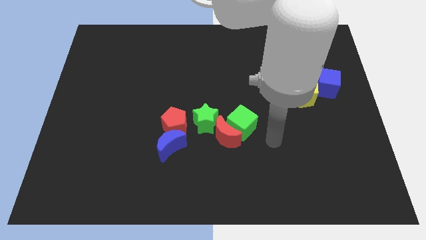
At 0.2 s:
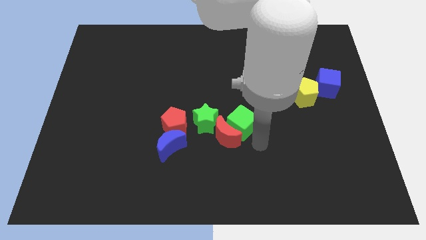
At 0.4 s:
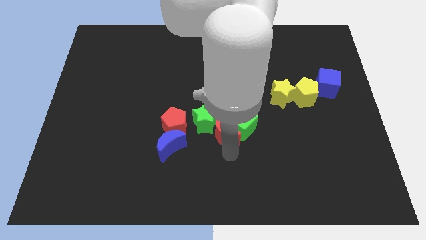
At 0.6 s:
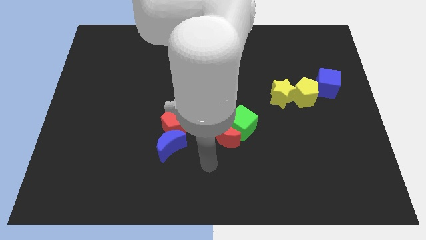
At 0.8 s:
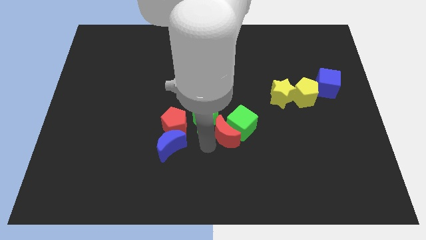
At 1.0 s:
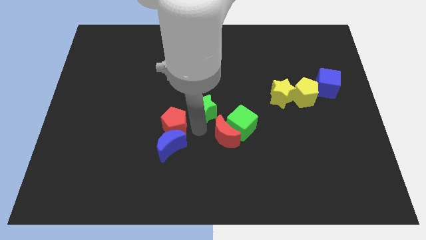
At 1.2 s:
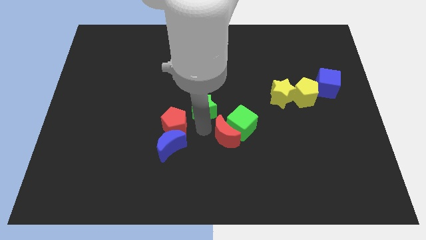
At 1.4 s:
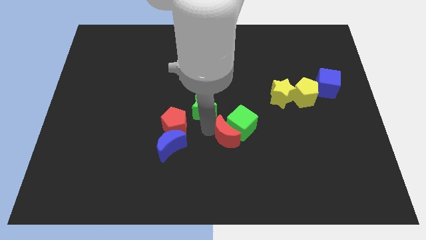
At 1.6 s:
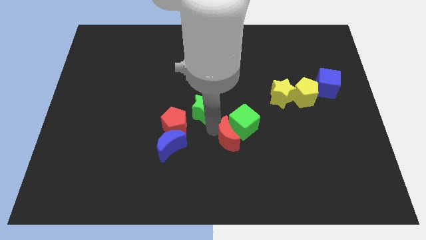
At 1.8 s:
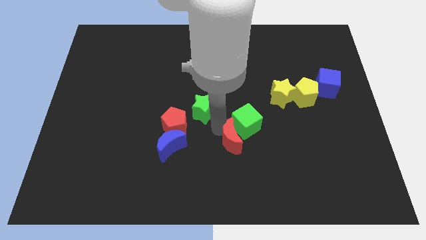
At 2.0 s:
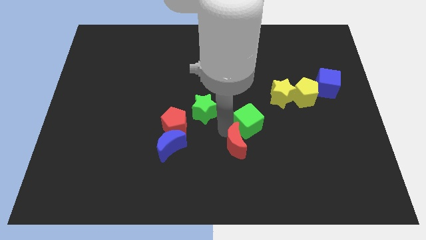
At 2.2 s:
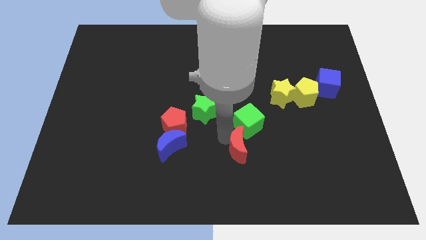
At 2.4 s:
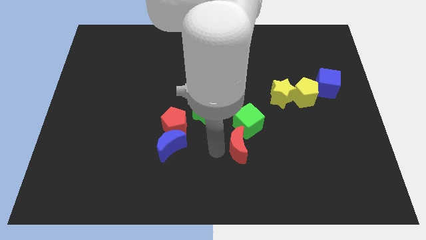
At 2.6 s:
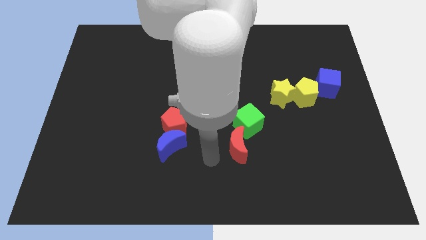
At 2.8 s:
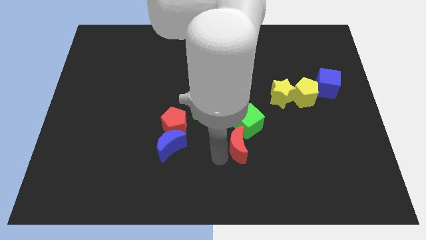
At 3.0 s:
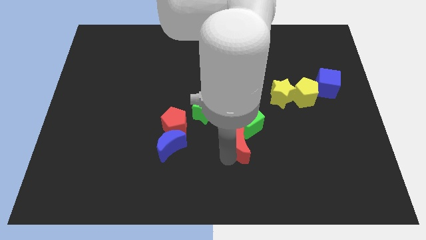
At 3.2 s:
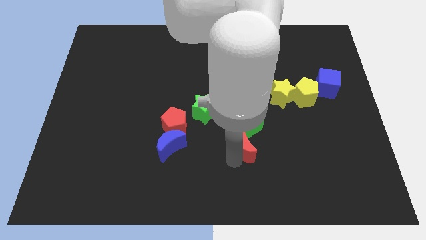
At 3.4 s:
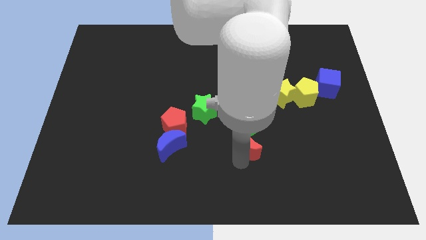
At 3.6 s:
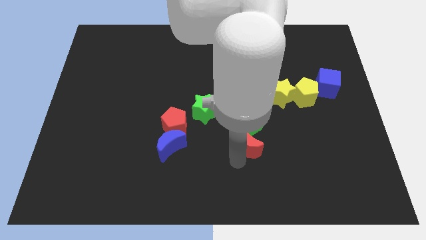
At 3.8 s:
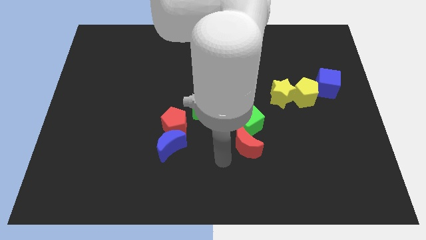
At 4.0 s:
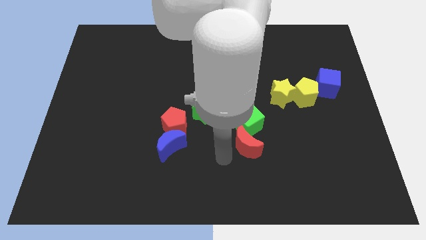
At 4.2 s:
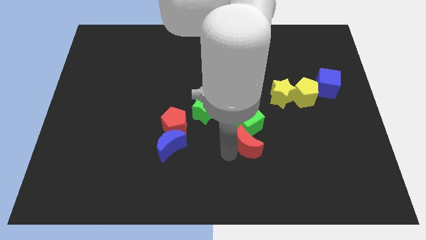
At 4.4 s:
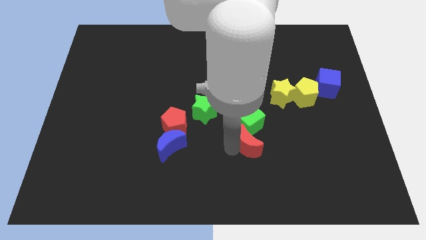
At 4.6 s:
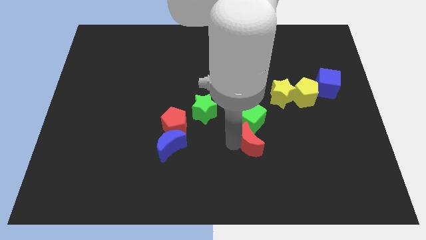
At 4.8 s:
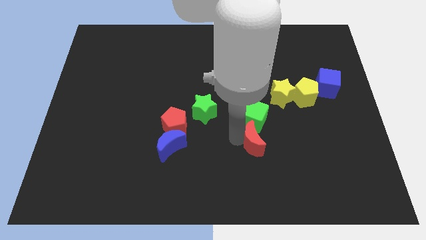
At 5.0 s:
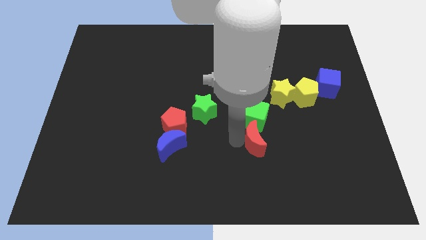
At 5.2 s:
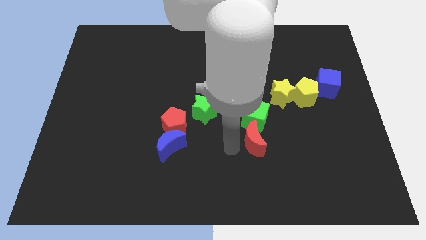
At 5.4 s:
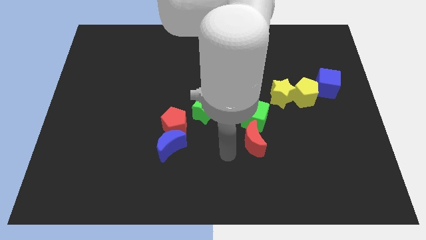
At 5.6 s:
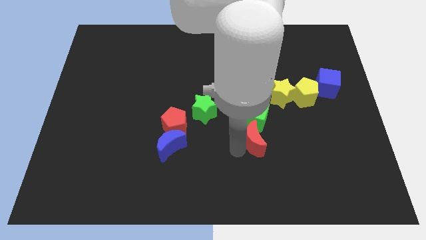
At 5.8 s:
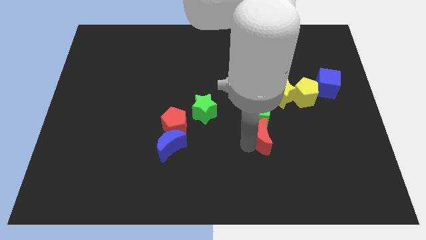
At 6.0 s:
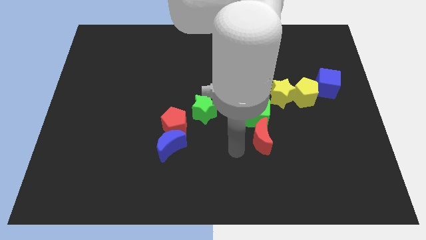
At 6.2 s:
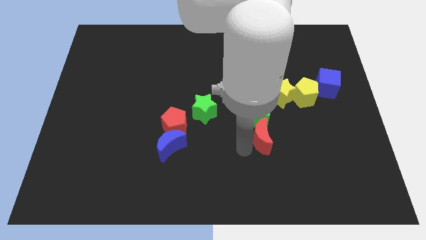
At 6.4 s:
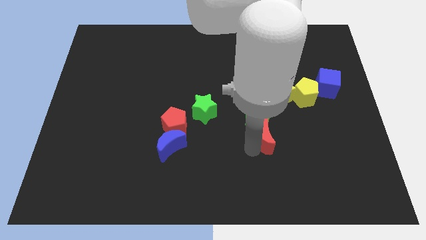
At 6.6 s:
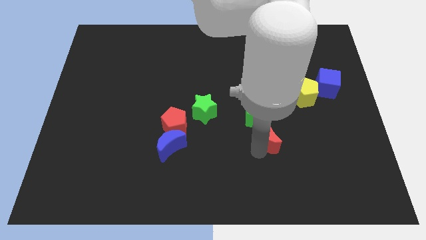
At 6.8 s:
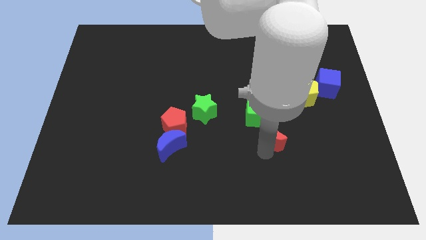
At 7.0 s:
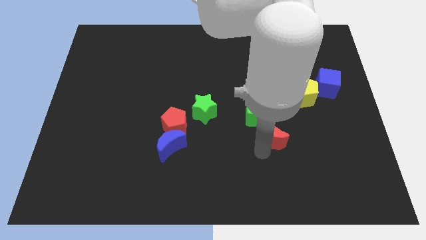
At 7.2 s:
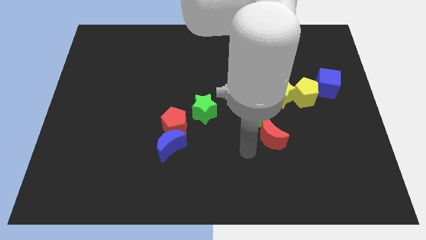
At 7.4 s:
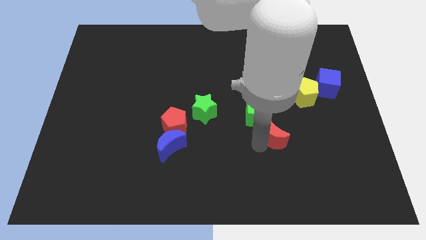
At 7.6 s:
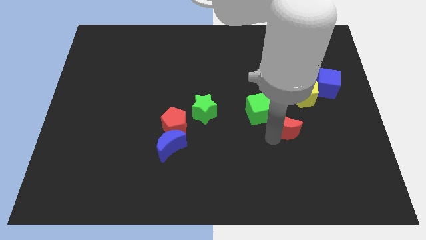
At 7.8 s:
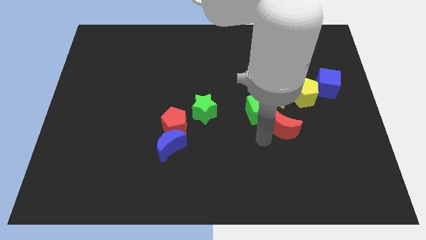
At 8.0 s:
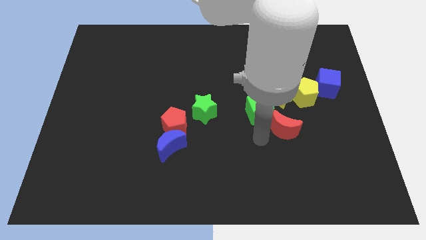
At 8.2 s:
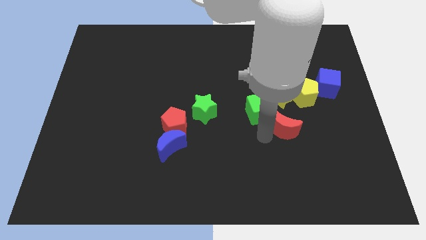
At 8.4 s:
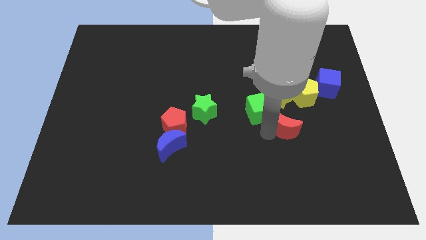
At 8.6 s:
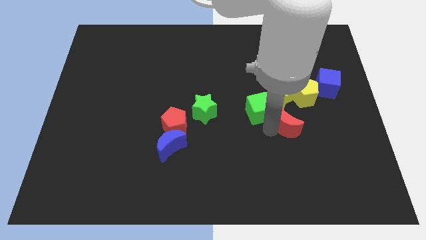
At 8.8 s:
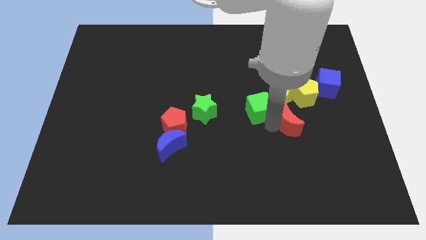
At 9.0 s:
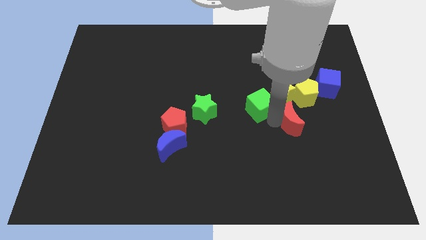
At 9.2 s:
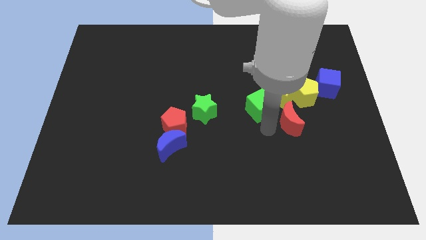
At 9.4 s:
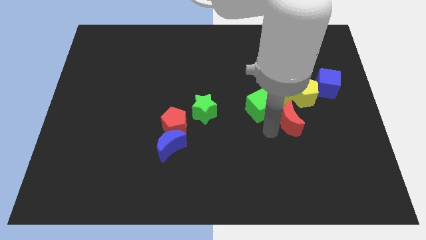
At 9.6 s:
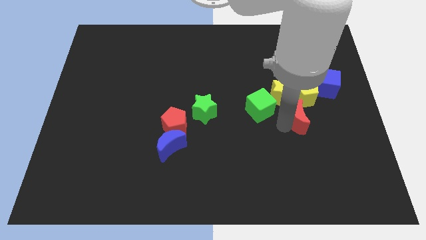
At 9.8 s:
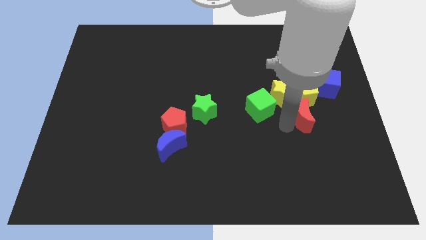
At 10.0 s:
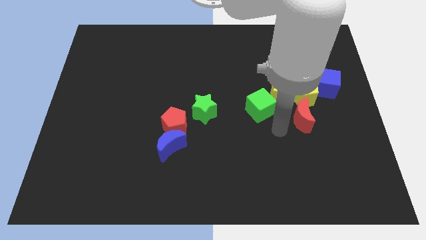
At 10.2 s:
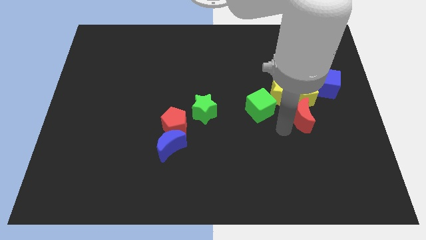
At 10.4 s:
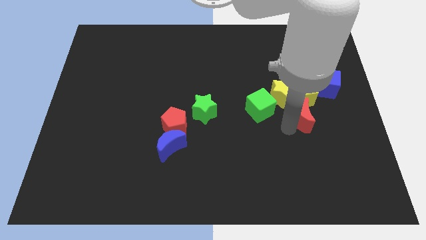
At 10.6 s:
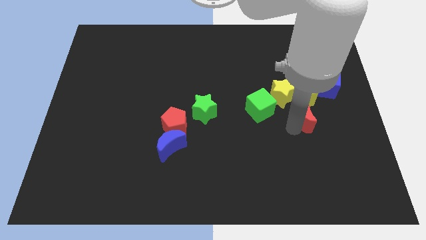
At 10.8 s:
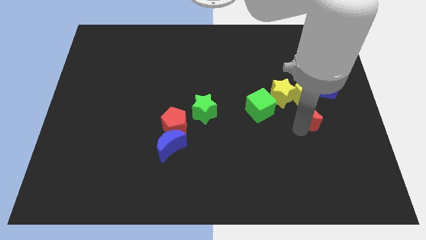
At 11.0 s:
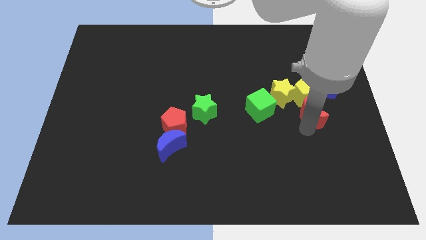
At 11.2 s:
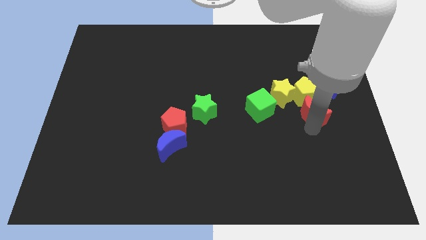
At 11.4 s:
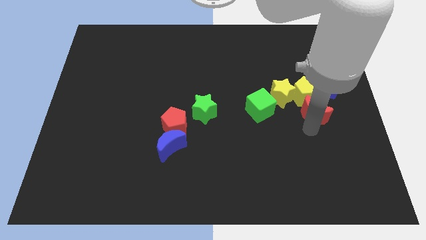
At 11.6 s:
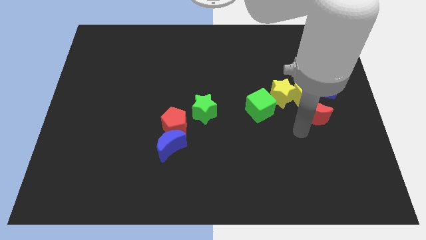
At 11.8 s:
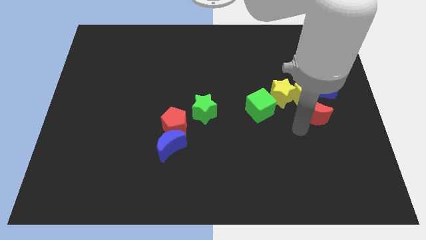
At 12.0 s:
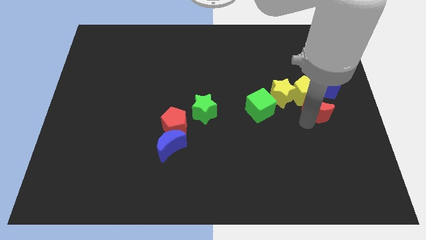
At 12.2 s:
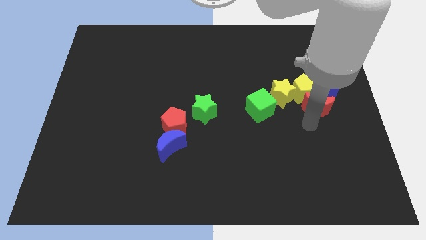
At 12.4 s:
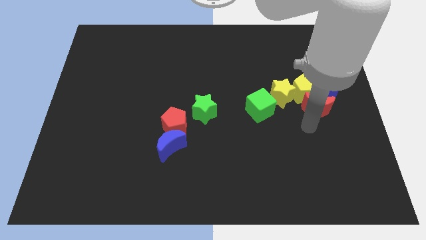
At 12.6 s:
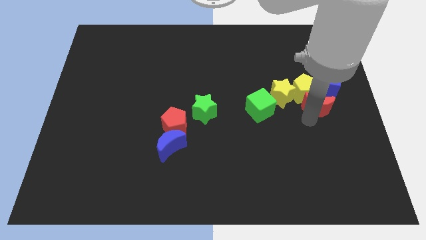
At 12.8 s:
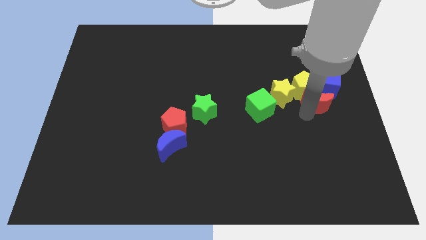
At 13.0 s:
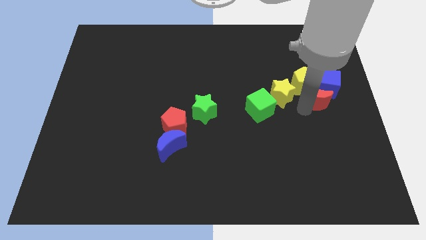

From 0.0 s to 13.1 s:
slide the red moon towards the blue cube

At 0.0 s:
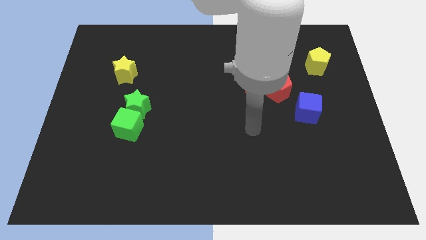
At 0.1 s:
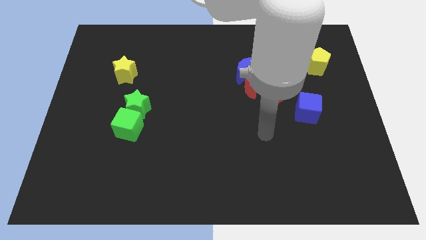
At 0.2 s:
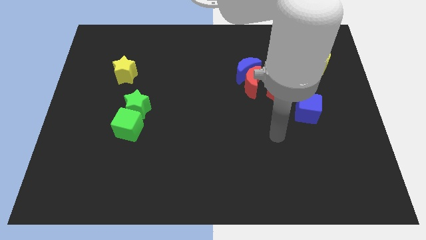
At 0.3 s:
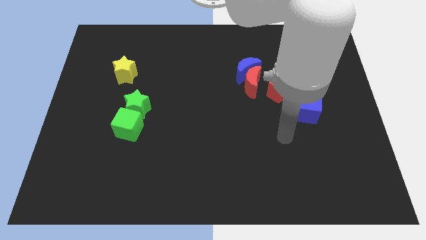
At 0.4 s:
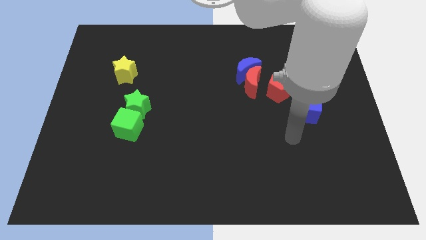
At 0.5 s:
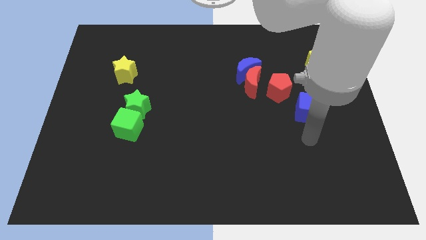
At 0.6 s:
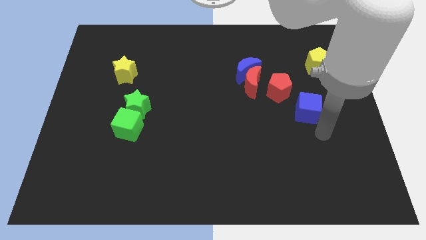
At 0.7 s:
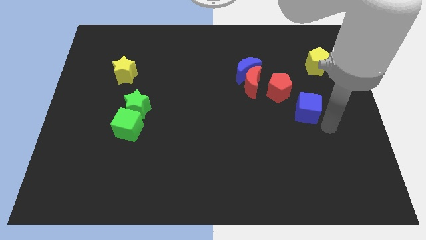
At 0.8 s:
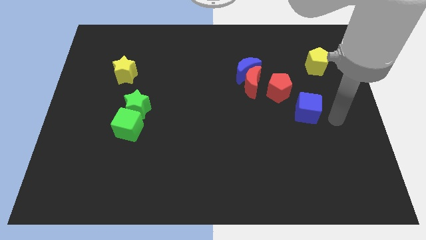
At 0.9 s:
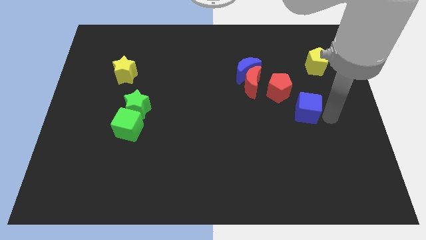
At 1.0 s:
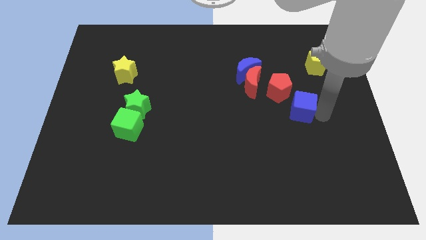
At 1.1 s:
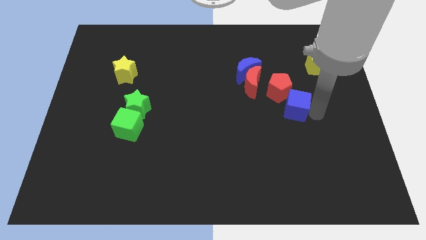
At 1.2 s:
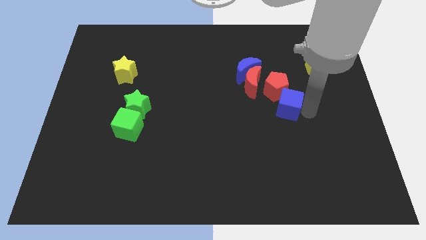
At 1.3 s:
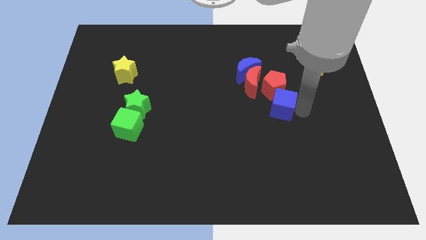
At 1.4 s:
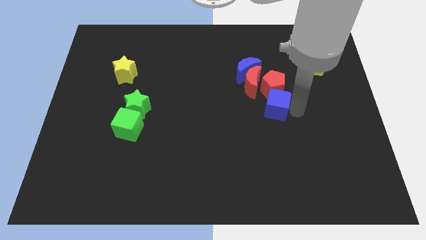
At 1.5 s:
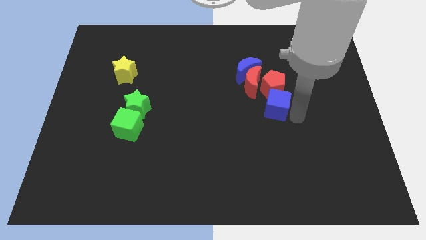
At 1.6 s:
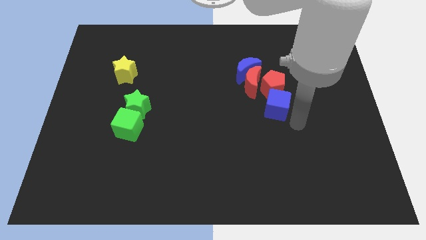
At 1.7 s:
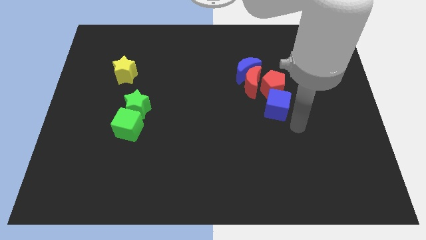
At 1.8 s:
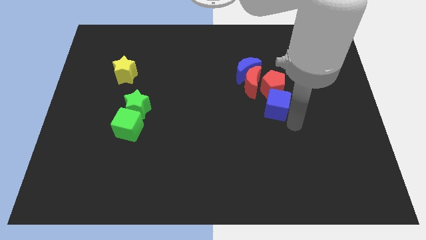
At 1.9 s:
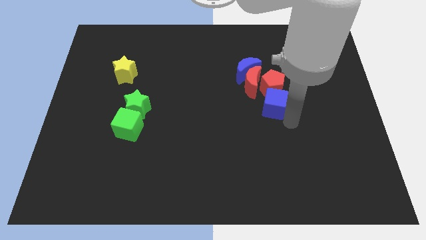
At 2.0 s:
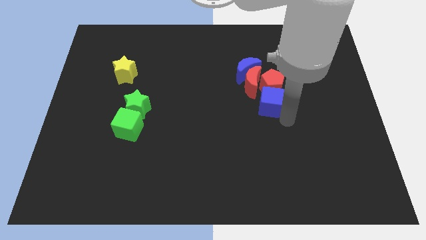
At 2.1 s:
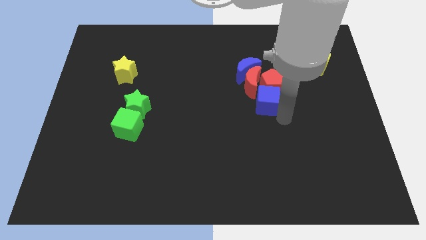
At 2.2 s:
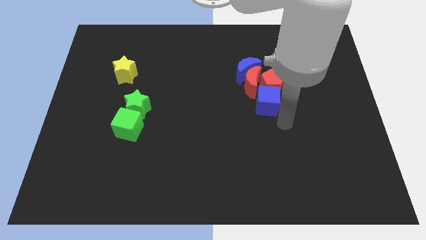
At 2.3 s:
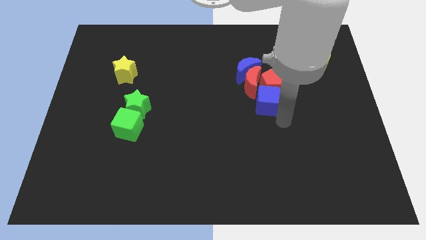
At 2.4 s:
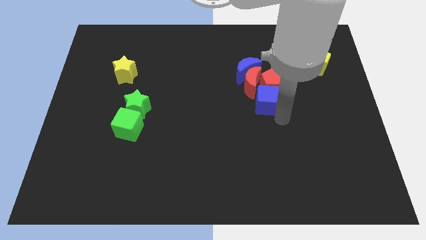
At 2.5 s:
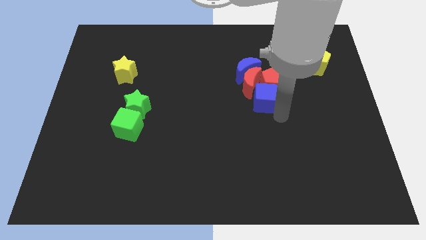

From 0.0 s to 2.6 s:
move the blue cube close to the red moon
